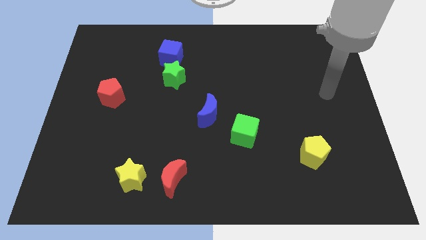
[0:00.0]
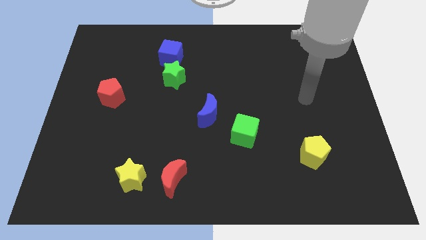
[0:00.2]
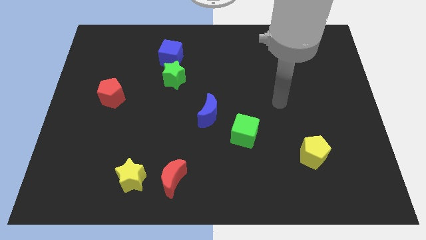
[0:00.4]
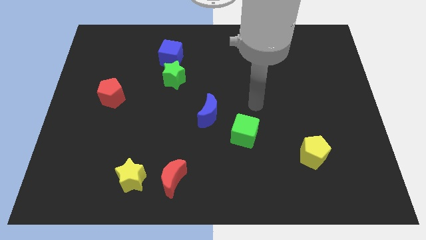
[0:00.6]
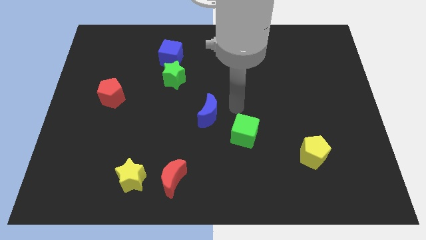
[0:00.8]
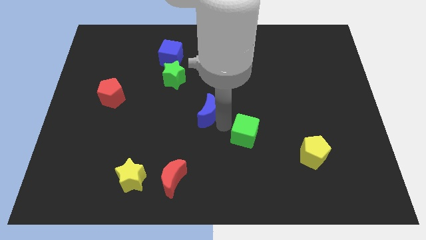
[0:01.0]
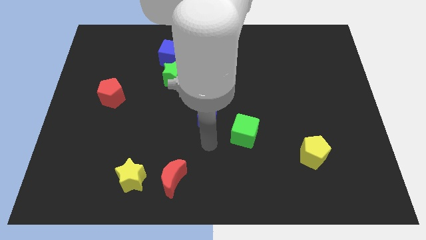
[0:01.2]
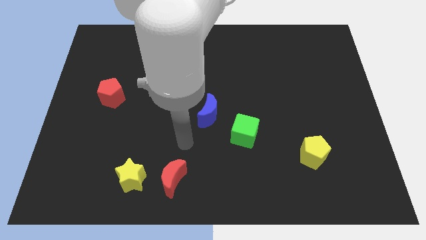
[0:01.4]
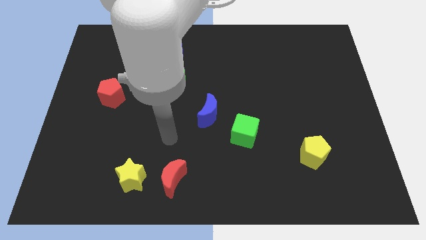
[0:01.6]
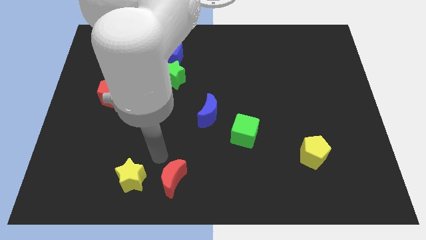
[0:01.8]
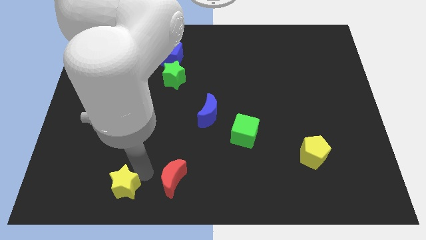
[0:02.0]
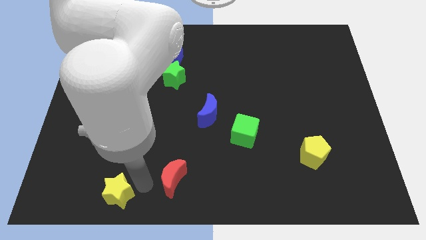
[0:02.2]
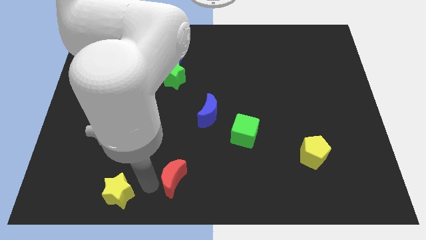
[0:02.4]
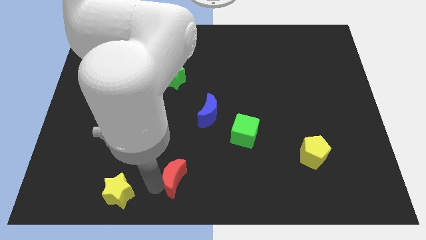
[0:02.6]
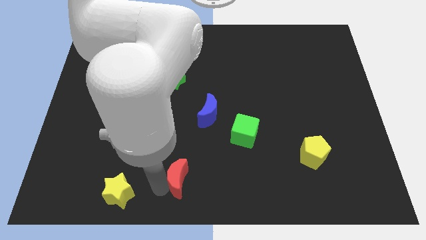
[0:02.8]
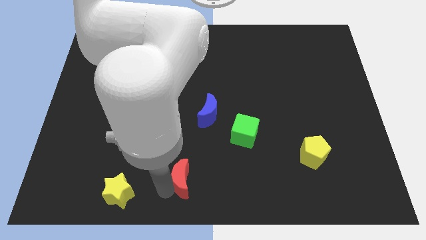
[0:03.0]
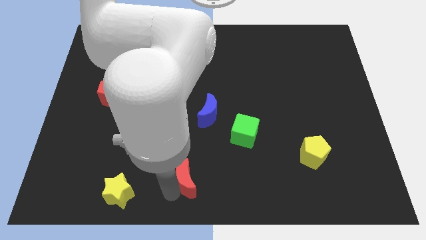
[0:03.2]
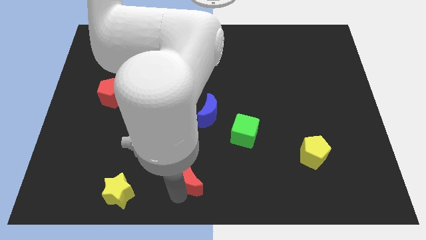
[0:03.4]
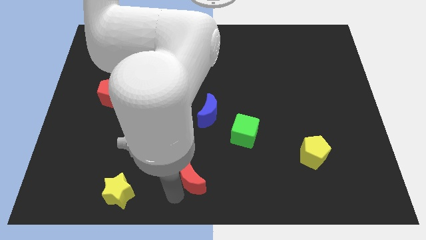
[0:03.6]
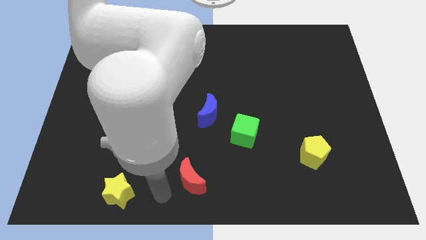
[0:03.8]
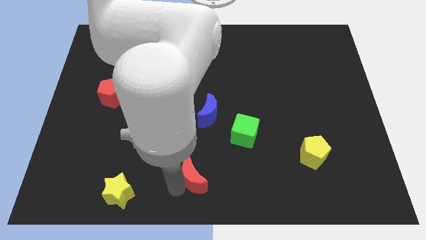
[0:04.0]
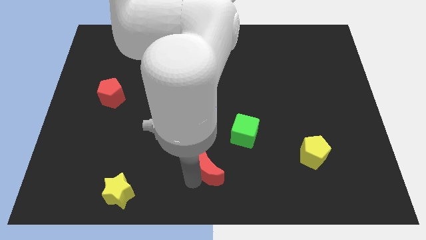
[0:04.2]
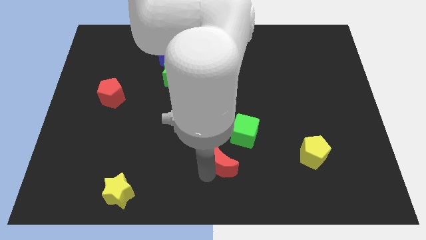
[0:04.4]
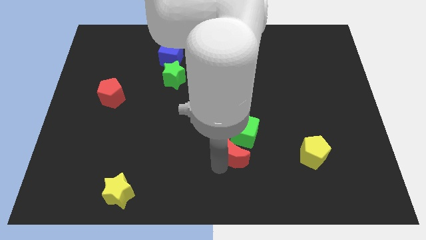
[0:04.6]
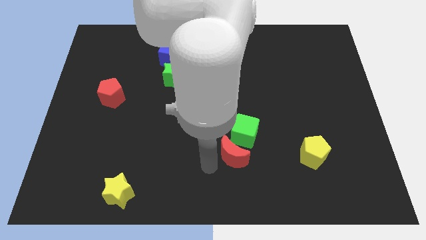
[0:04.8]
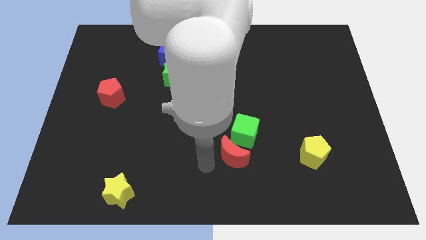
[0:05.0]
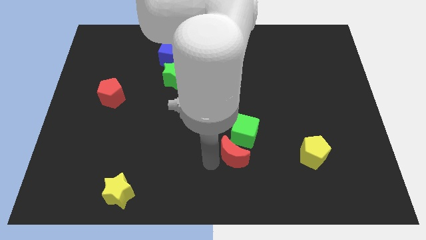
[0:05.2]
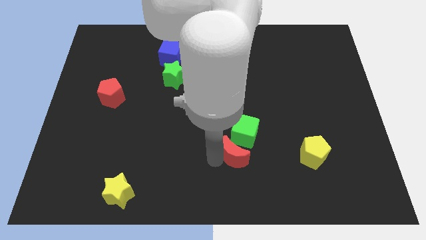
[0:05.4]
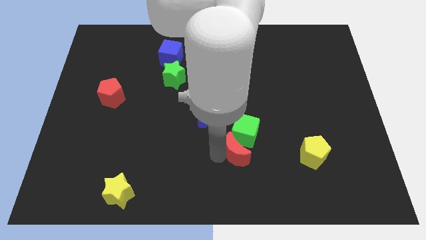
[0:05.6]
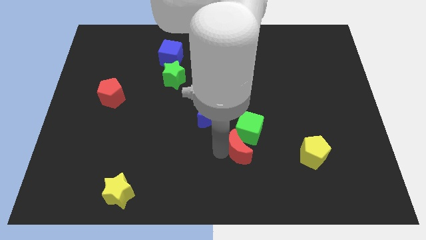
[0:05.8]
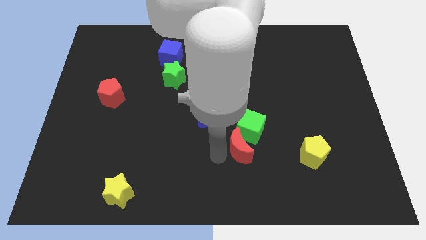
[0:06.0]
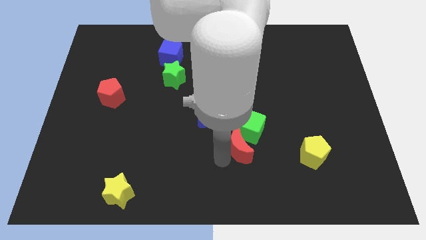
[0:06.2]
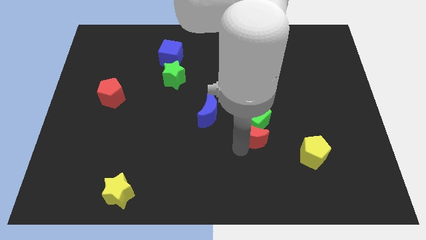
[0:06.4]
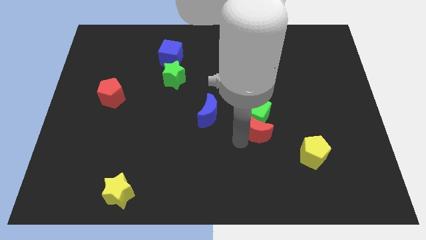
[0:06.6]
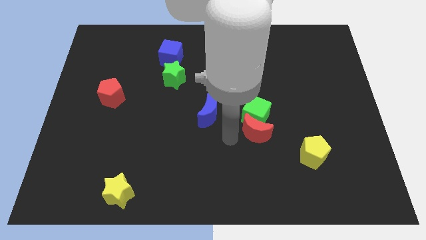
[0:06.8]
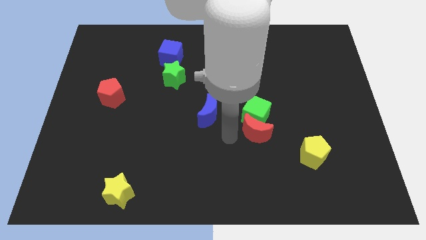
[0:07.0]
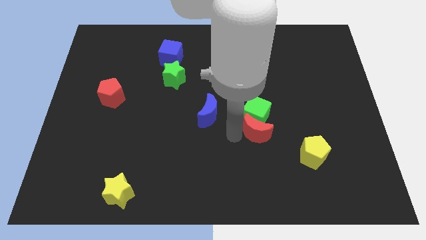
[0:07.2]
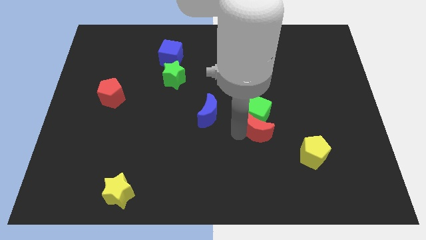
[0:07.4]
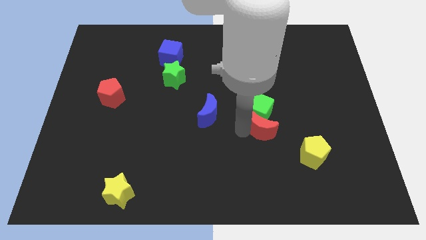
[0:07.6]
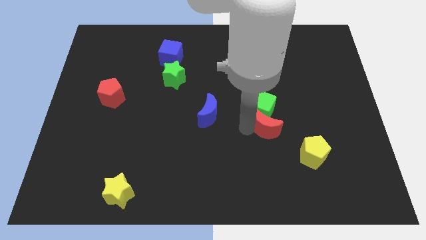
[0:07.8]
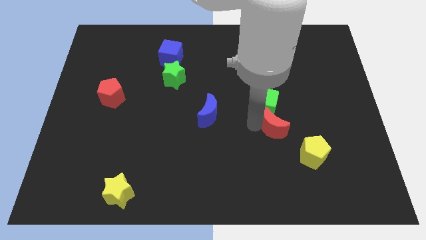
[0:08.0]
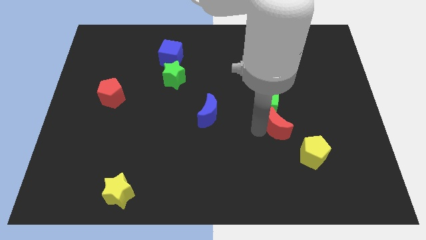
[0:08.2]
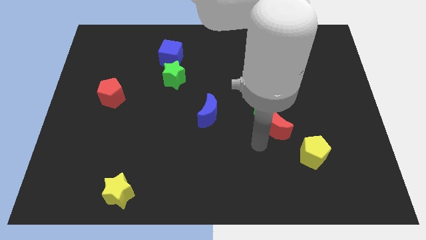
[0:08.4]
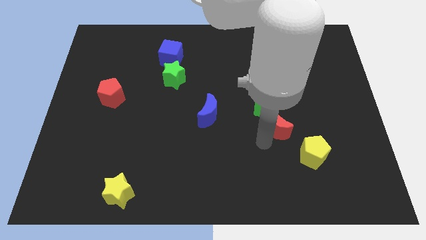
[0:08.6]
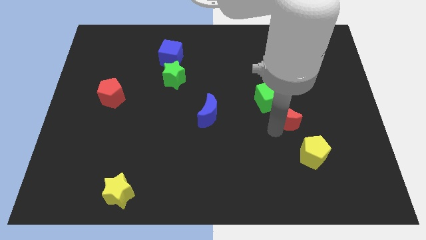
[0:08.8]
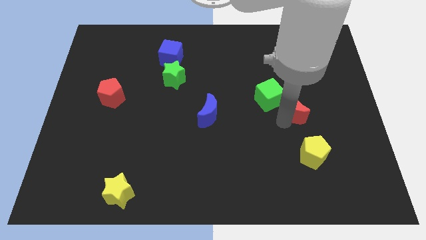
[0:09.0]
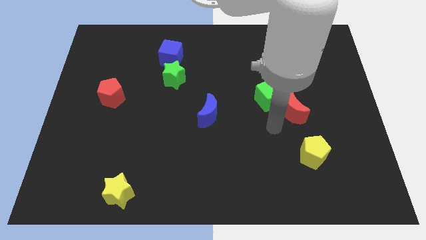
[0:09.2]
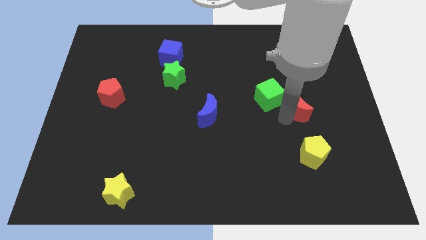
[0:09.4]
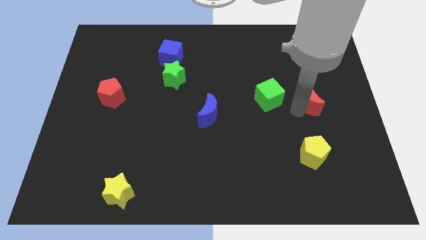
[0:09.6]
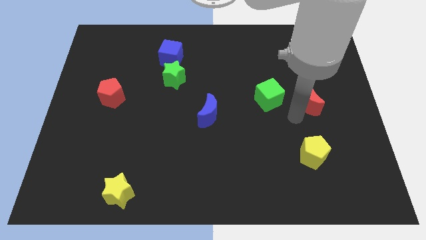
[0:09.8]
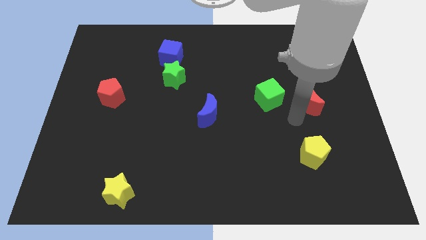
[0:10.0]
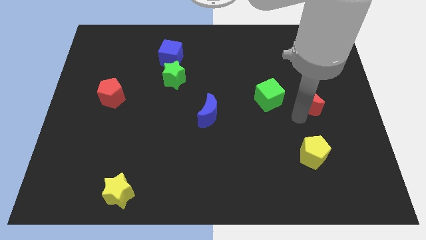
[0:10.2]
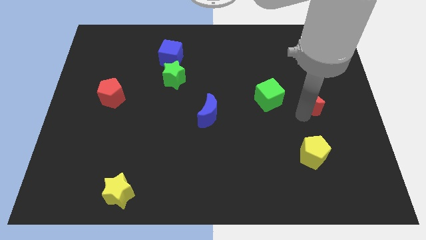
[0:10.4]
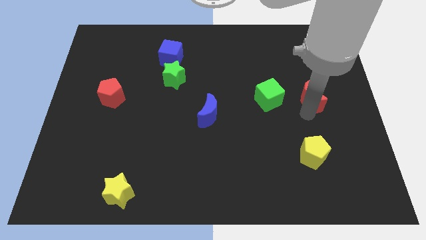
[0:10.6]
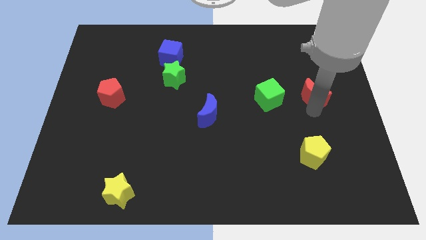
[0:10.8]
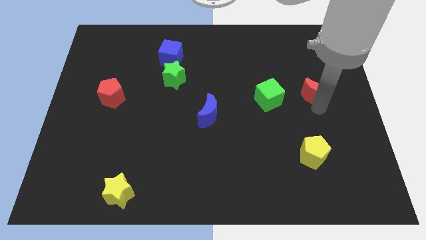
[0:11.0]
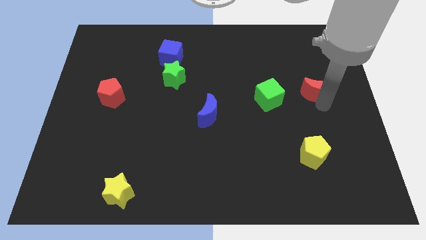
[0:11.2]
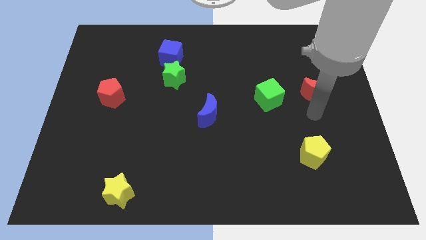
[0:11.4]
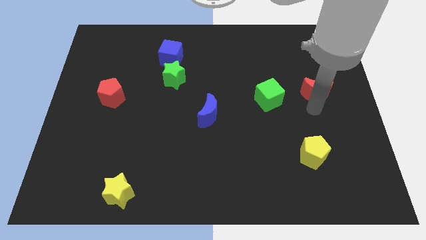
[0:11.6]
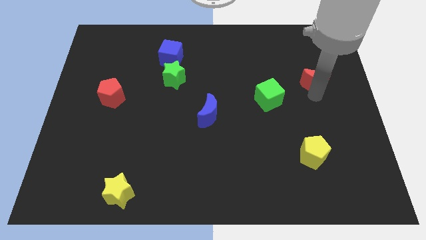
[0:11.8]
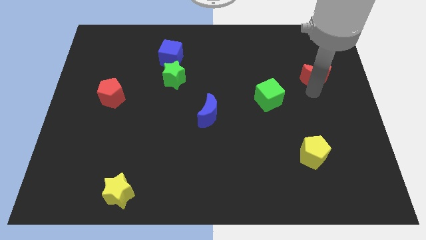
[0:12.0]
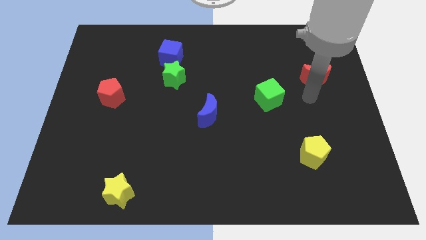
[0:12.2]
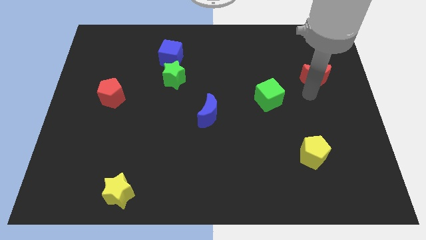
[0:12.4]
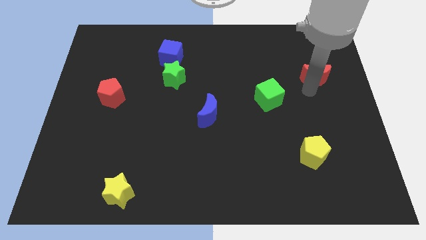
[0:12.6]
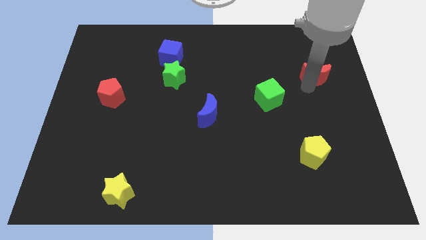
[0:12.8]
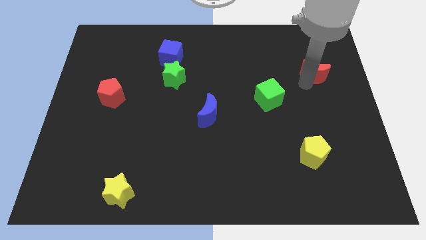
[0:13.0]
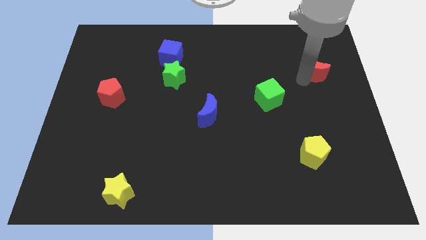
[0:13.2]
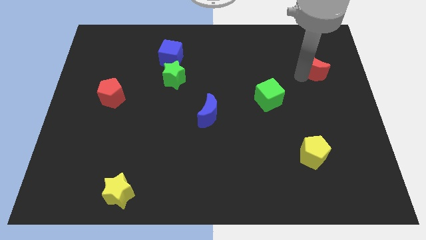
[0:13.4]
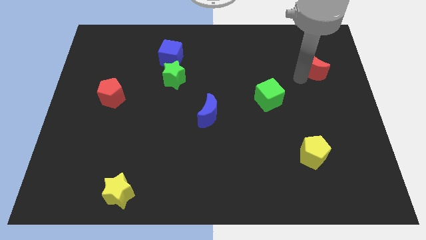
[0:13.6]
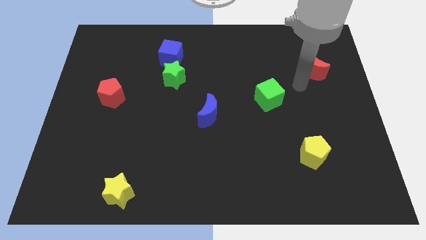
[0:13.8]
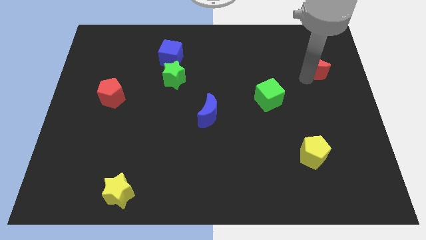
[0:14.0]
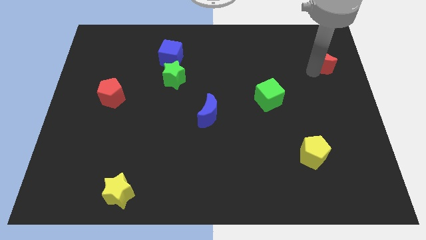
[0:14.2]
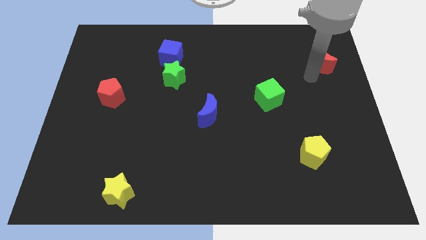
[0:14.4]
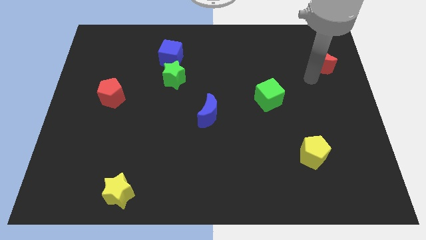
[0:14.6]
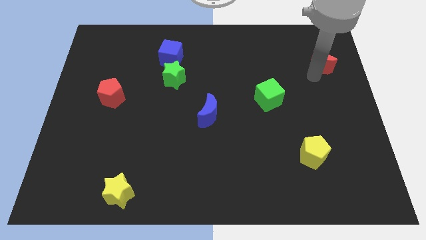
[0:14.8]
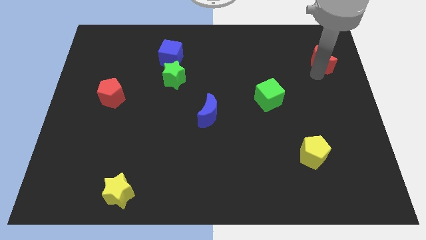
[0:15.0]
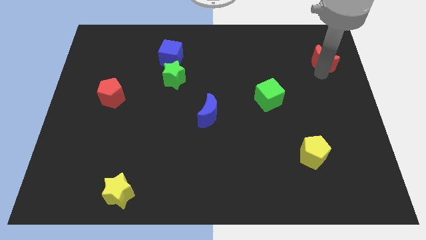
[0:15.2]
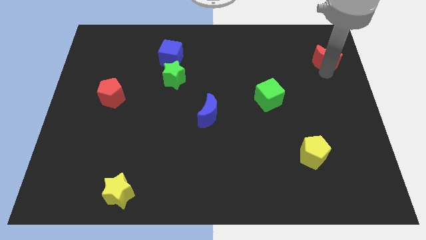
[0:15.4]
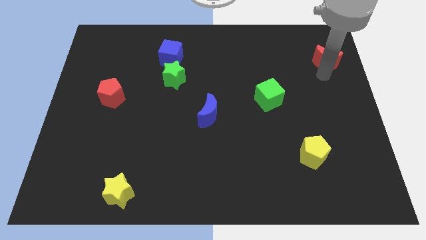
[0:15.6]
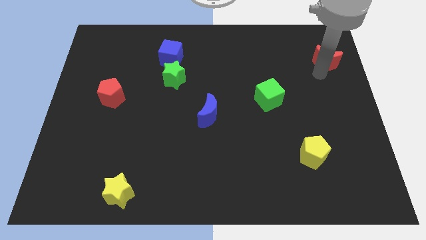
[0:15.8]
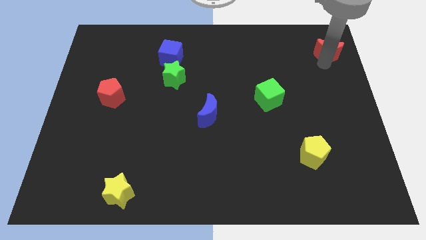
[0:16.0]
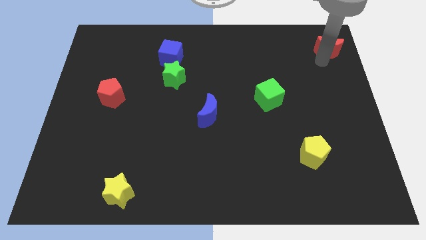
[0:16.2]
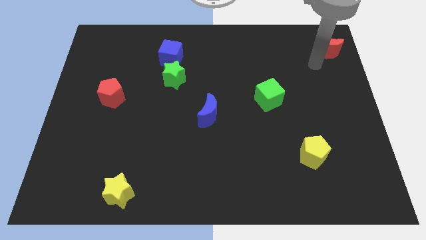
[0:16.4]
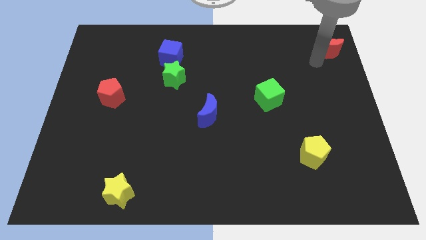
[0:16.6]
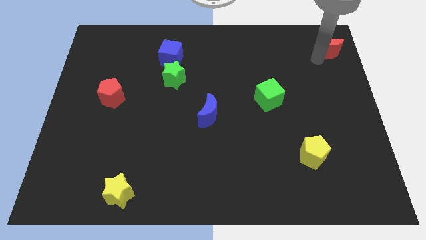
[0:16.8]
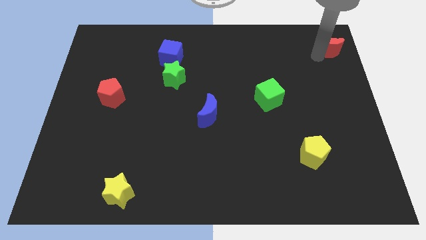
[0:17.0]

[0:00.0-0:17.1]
slide the red moon to the upper right corner
